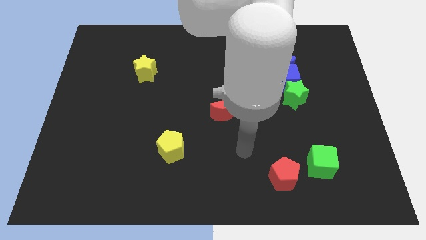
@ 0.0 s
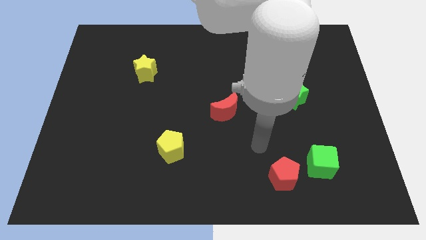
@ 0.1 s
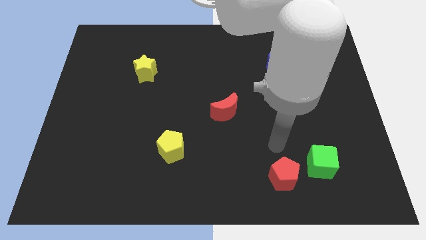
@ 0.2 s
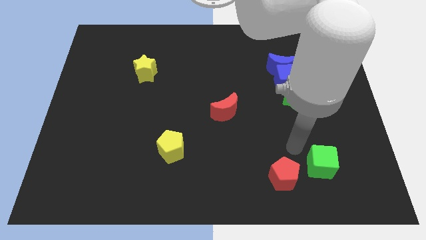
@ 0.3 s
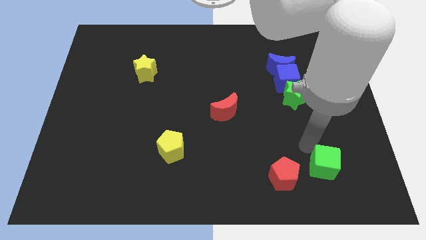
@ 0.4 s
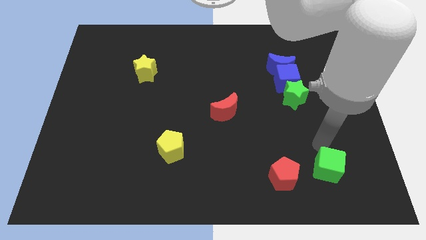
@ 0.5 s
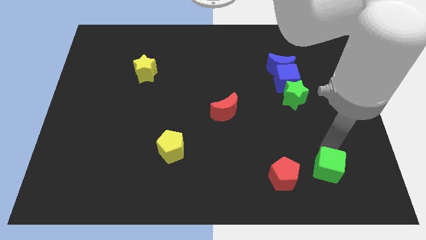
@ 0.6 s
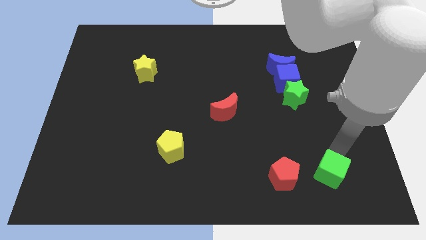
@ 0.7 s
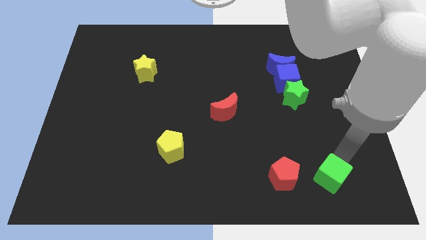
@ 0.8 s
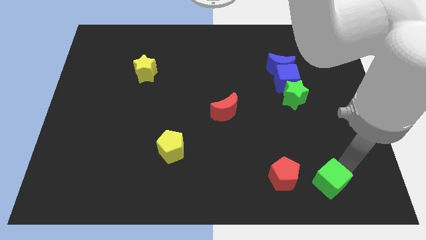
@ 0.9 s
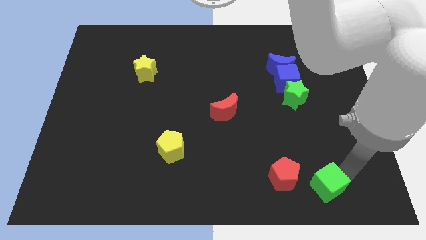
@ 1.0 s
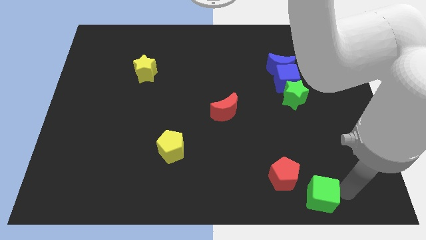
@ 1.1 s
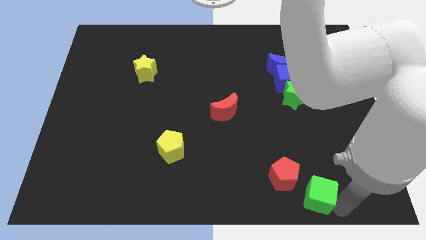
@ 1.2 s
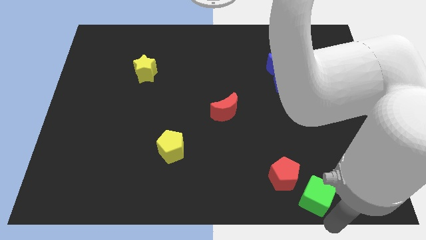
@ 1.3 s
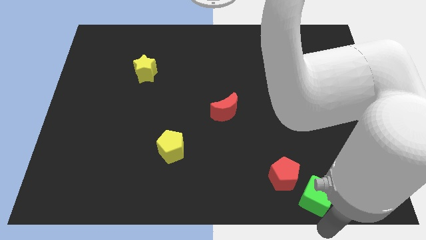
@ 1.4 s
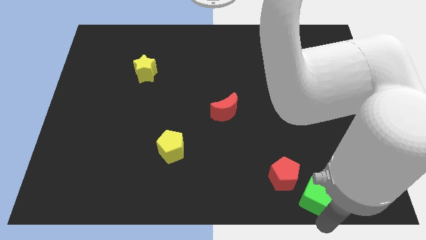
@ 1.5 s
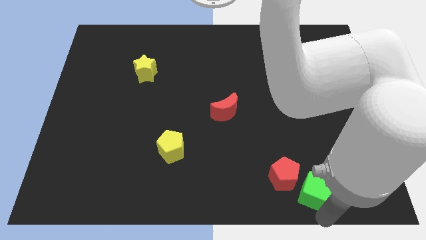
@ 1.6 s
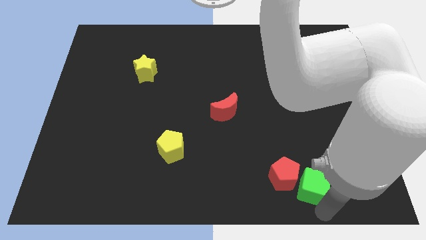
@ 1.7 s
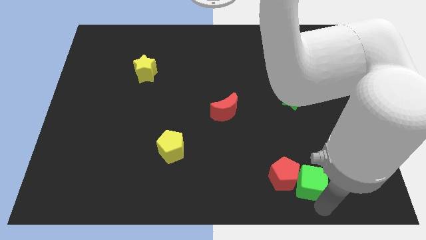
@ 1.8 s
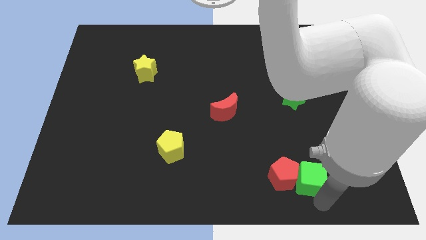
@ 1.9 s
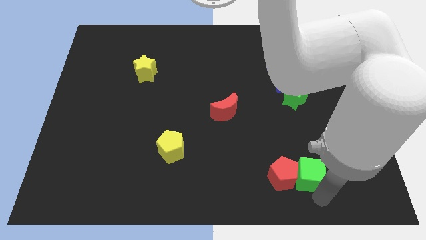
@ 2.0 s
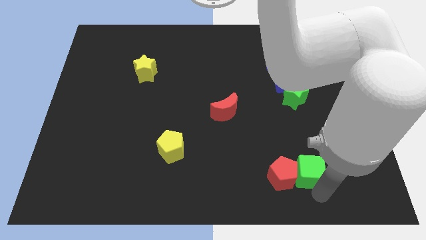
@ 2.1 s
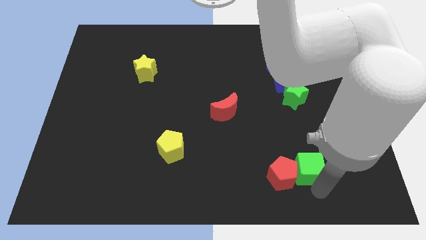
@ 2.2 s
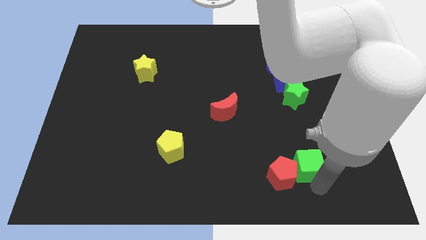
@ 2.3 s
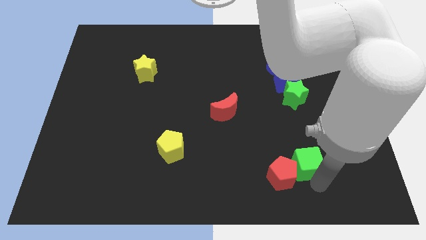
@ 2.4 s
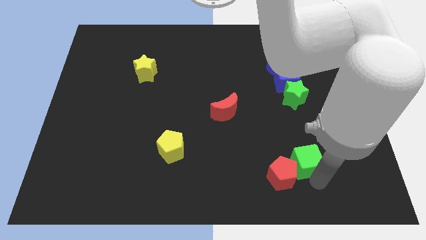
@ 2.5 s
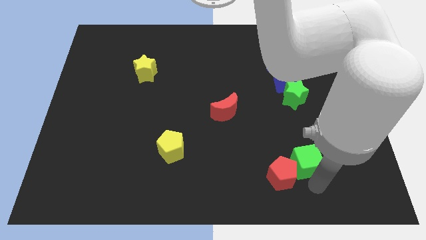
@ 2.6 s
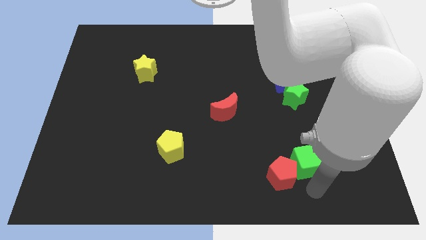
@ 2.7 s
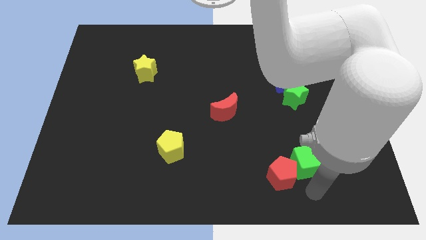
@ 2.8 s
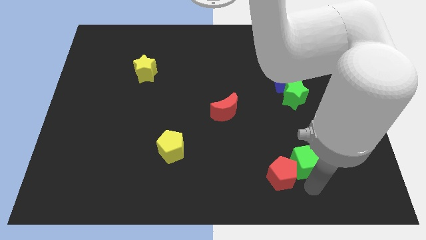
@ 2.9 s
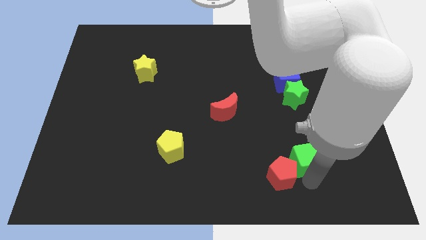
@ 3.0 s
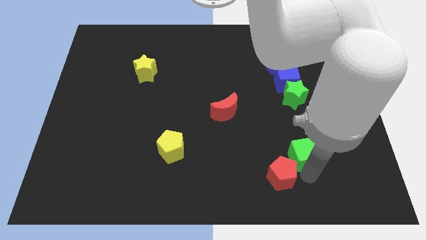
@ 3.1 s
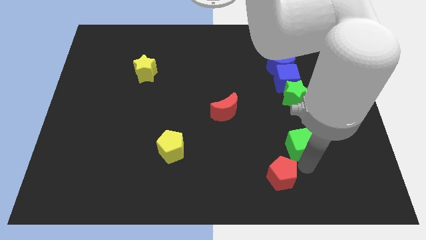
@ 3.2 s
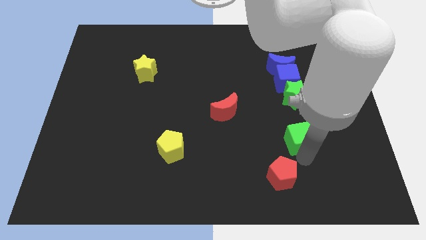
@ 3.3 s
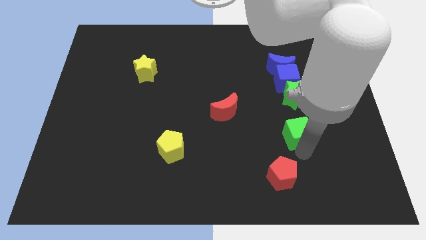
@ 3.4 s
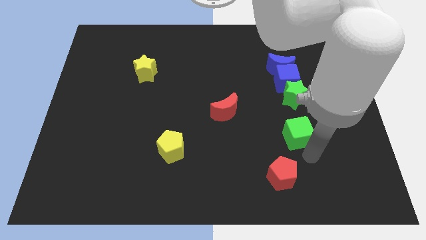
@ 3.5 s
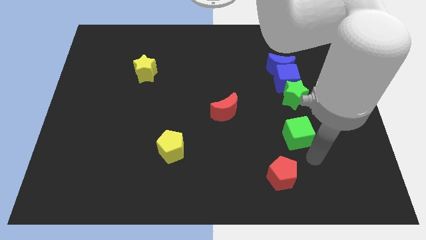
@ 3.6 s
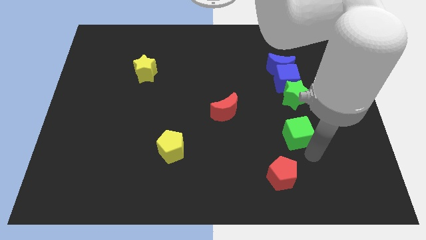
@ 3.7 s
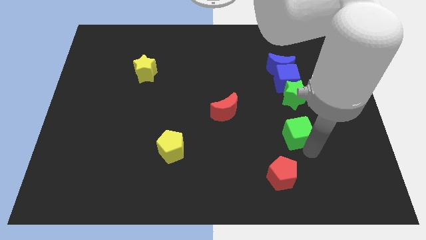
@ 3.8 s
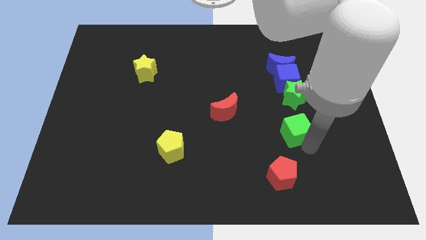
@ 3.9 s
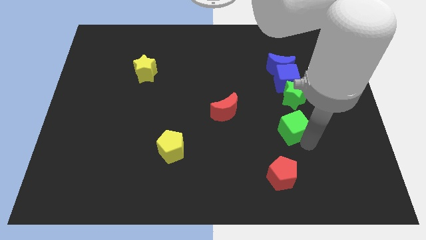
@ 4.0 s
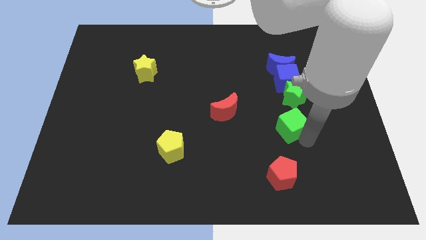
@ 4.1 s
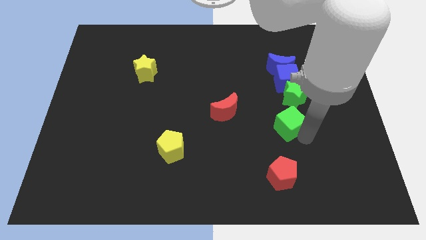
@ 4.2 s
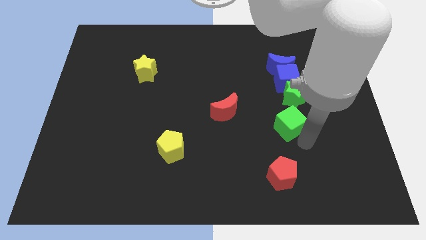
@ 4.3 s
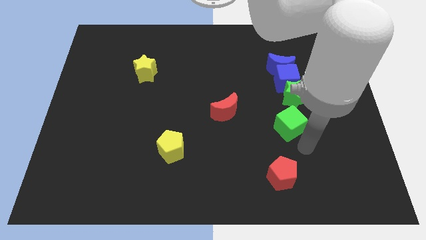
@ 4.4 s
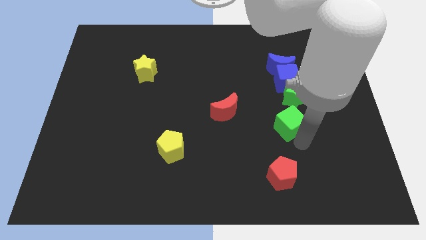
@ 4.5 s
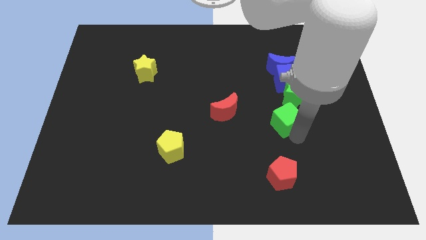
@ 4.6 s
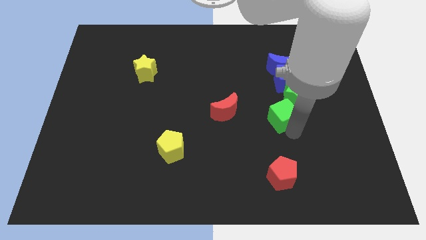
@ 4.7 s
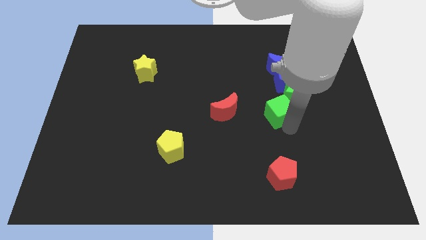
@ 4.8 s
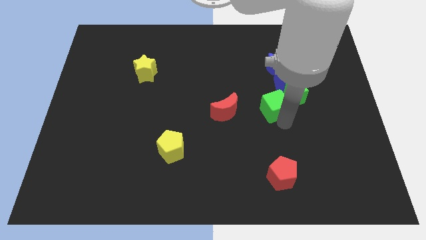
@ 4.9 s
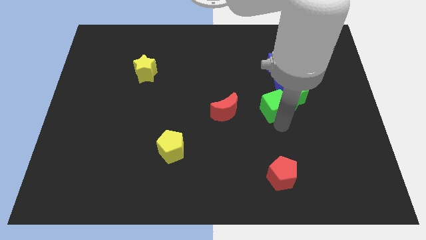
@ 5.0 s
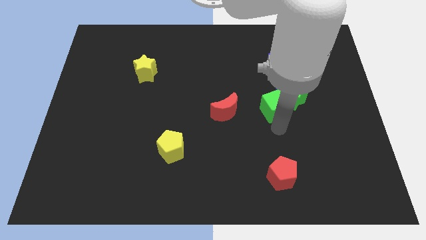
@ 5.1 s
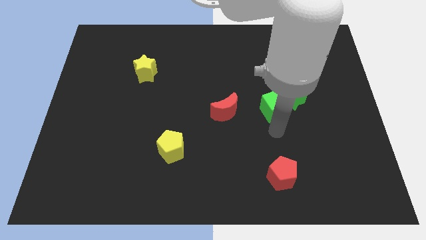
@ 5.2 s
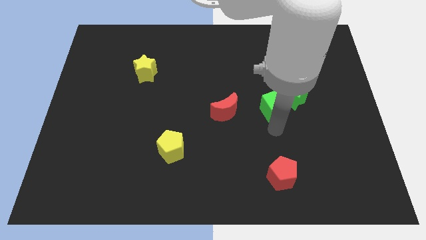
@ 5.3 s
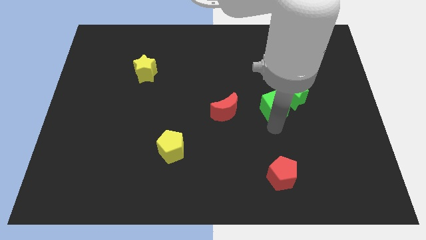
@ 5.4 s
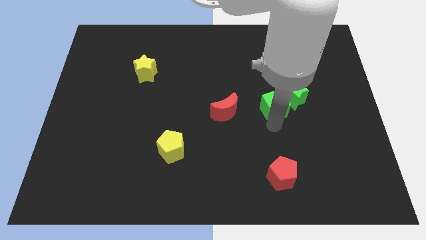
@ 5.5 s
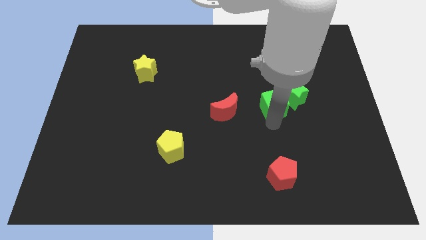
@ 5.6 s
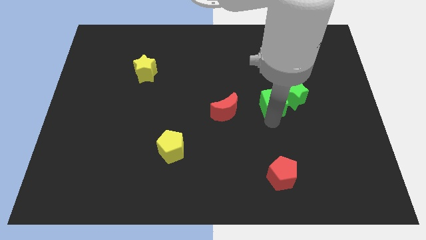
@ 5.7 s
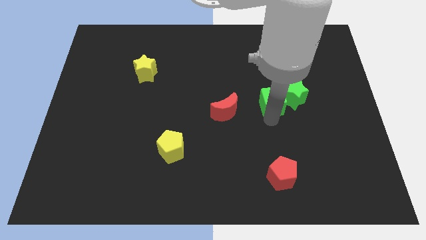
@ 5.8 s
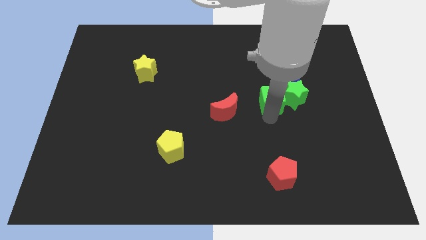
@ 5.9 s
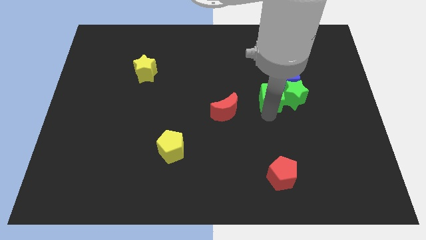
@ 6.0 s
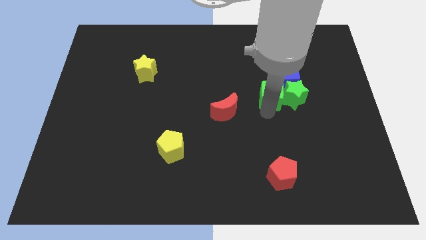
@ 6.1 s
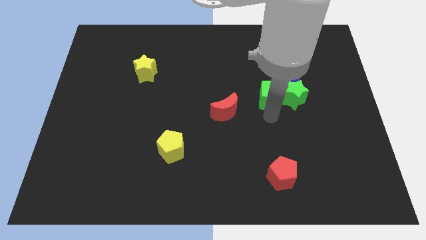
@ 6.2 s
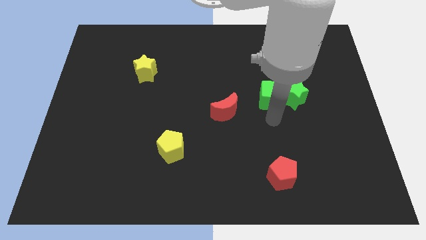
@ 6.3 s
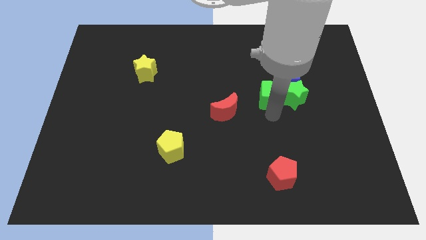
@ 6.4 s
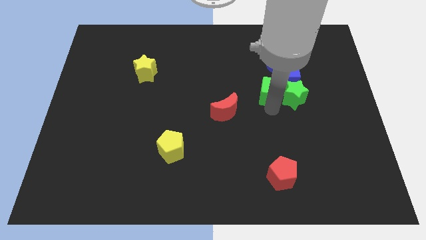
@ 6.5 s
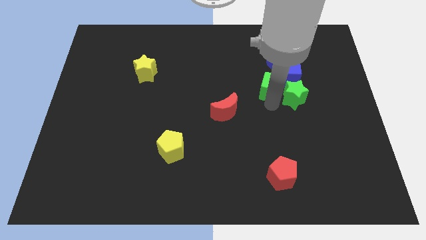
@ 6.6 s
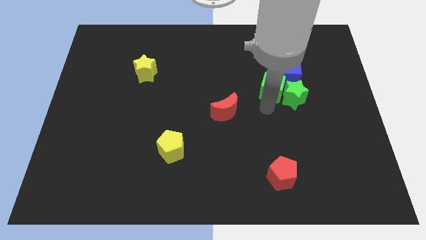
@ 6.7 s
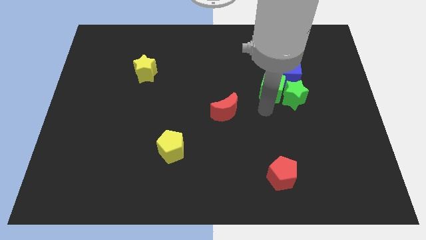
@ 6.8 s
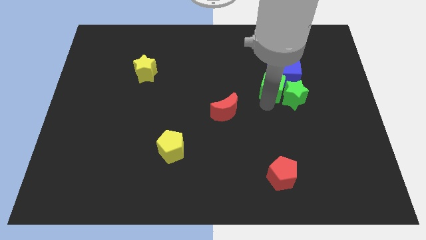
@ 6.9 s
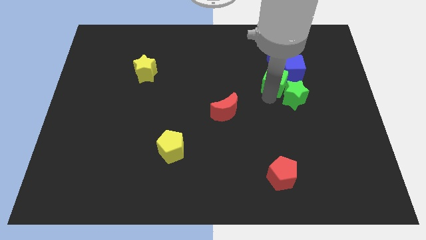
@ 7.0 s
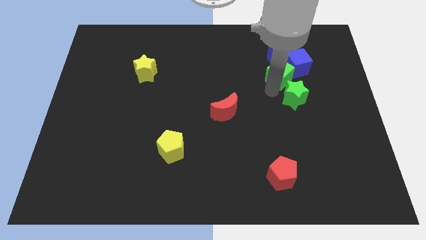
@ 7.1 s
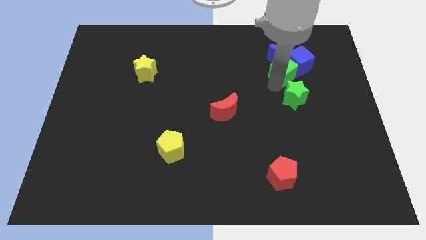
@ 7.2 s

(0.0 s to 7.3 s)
move the green cube close to the blue moon
